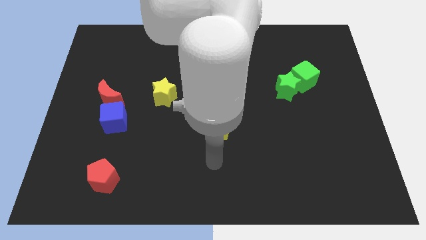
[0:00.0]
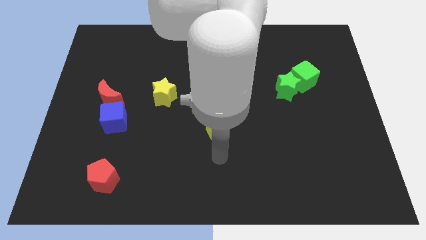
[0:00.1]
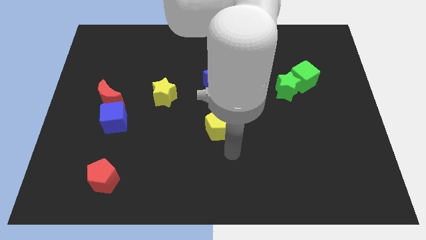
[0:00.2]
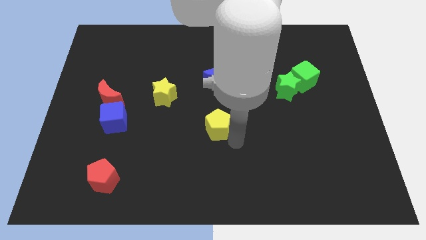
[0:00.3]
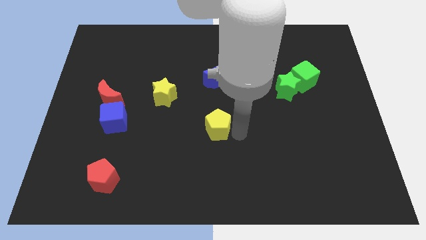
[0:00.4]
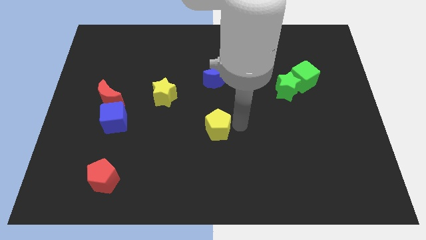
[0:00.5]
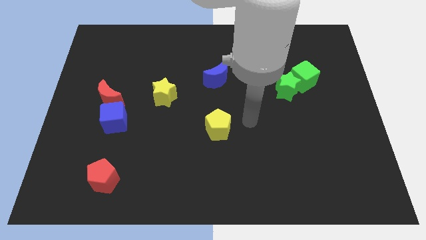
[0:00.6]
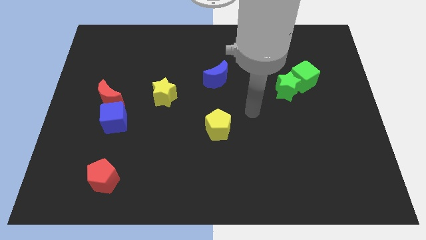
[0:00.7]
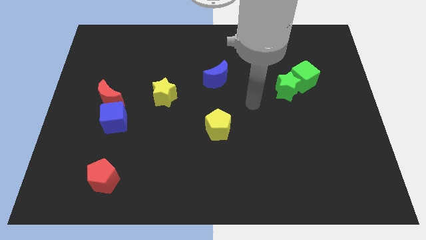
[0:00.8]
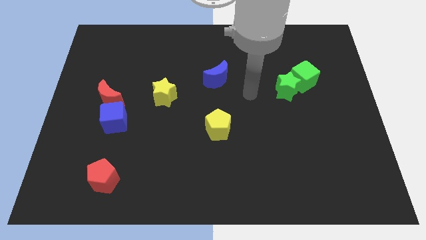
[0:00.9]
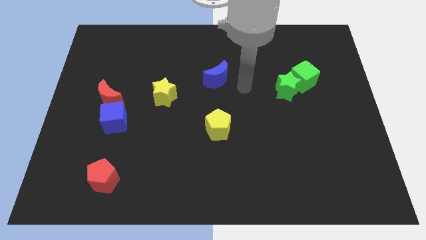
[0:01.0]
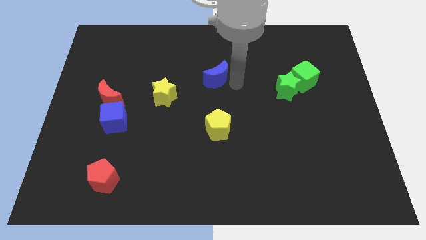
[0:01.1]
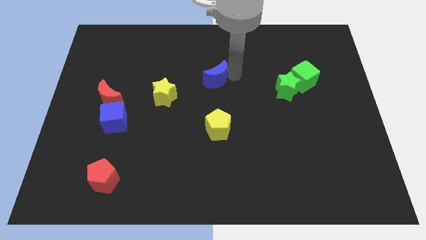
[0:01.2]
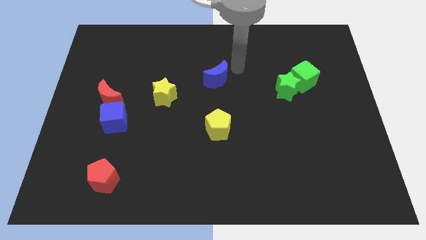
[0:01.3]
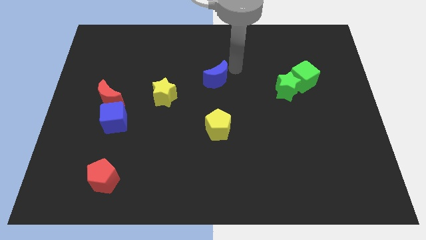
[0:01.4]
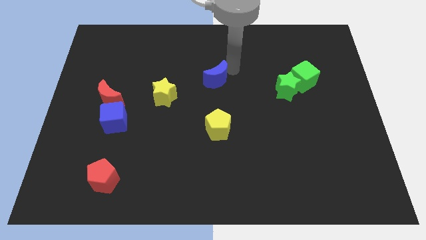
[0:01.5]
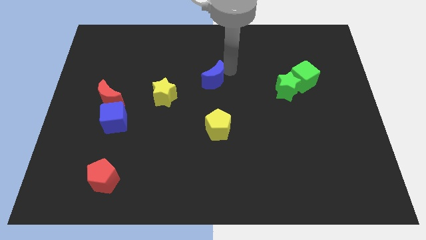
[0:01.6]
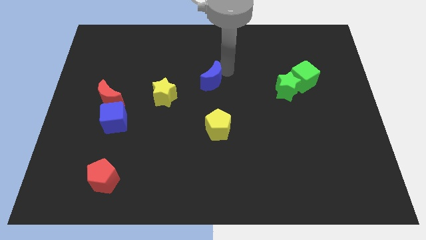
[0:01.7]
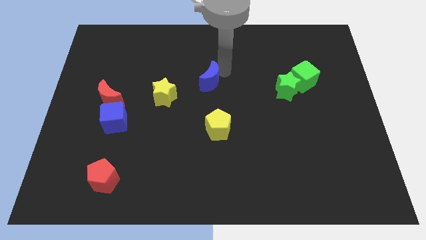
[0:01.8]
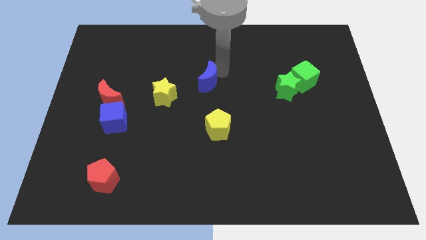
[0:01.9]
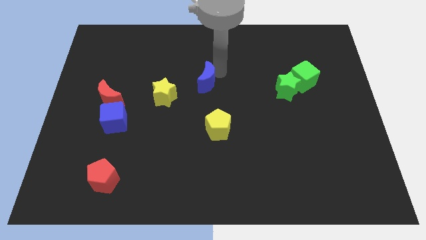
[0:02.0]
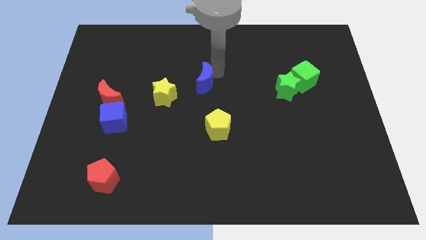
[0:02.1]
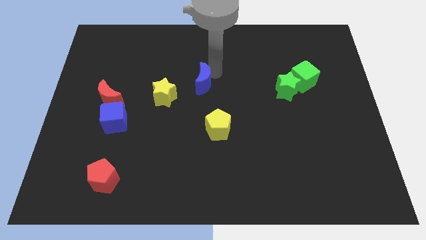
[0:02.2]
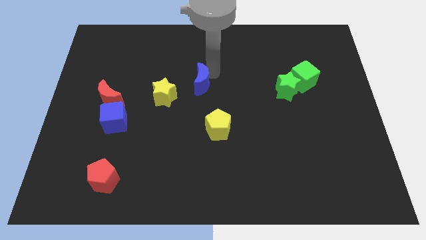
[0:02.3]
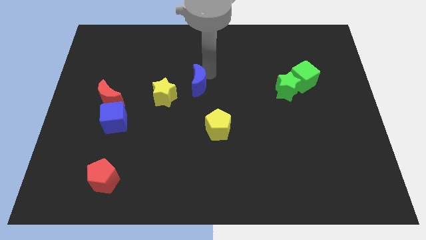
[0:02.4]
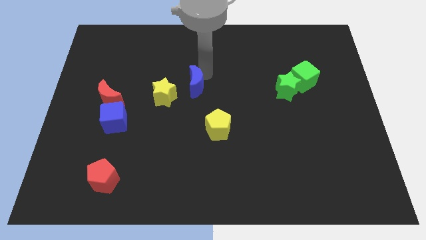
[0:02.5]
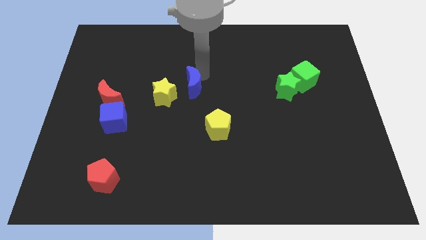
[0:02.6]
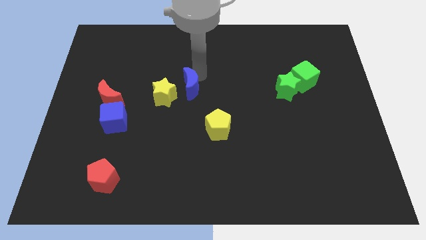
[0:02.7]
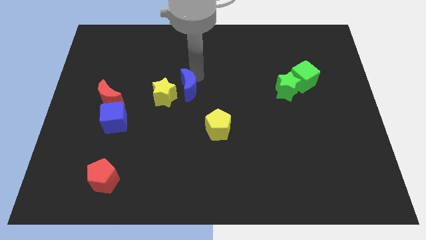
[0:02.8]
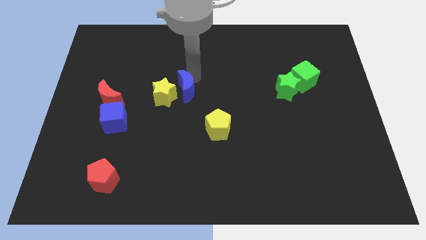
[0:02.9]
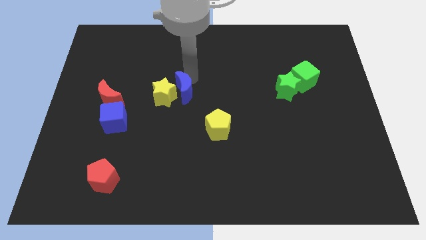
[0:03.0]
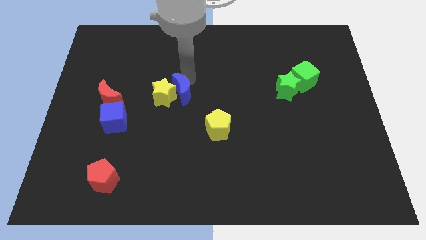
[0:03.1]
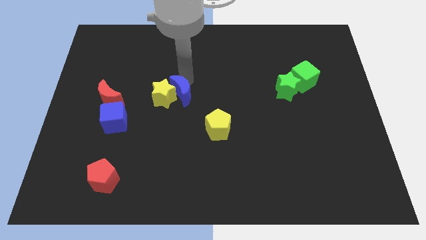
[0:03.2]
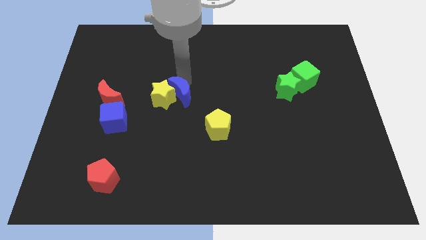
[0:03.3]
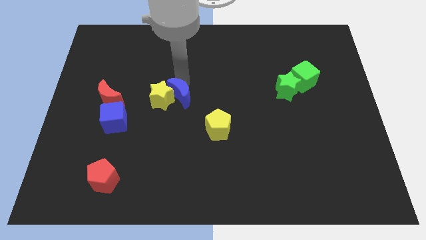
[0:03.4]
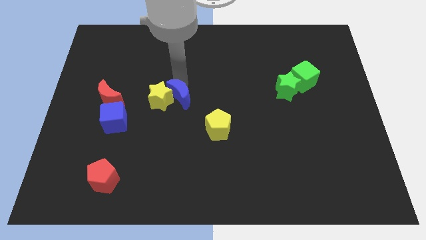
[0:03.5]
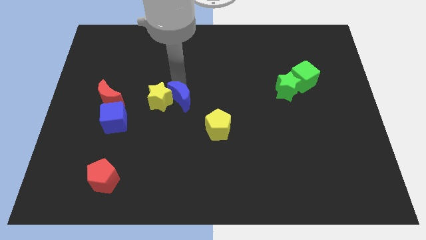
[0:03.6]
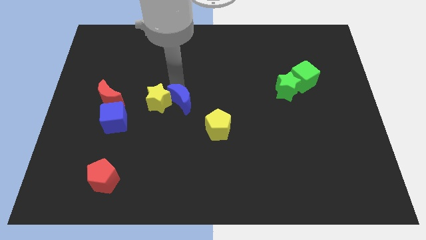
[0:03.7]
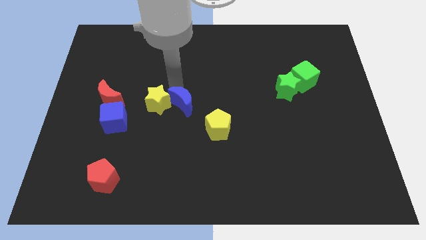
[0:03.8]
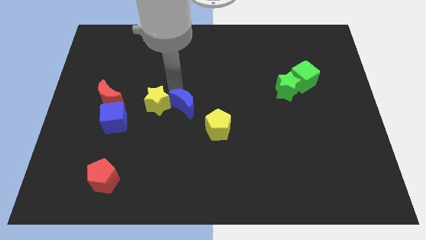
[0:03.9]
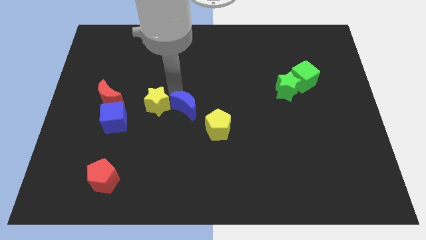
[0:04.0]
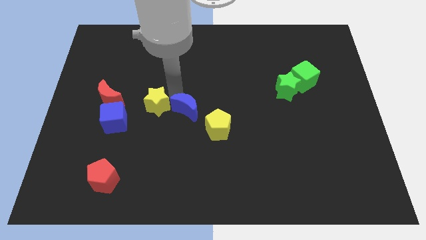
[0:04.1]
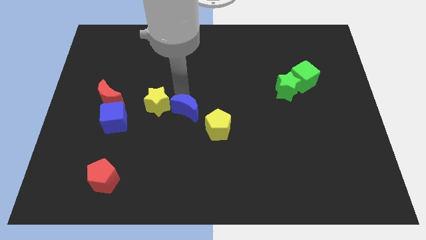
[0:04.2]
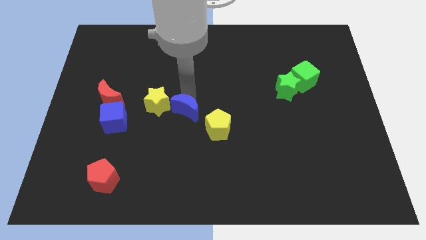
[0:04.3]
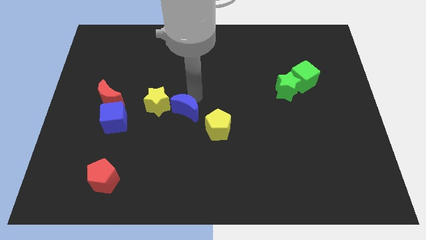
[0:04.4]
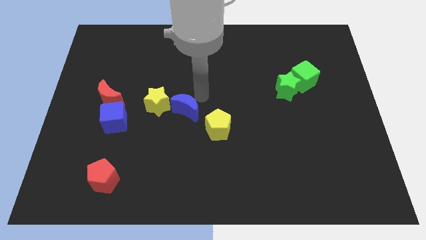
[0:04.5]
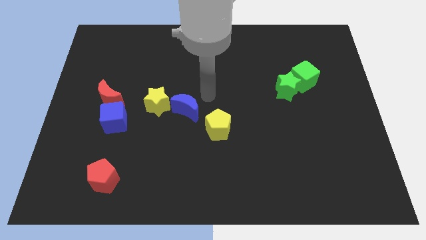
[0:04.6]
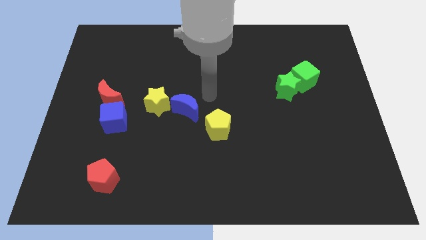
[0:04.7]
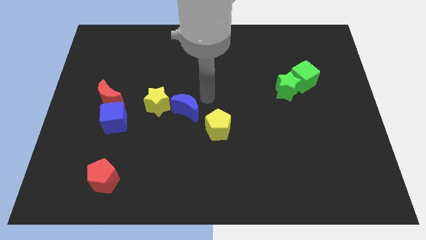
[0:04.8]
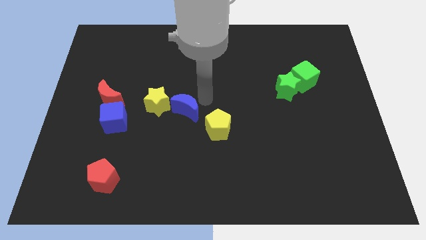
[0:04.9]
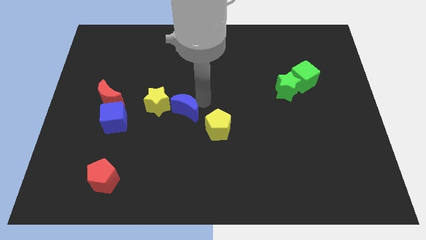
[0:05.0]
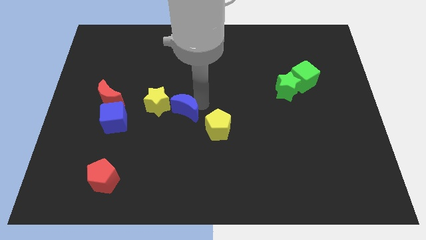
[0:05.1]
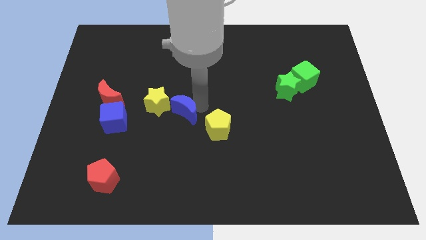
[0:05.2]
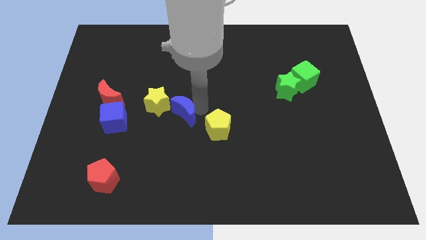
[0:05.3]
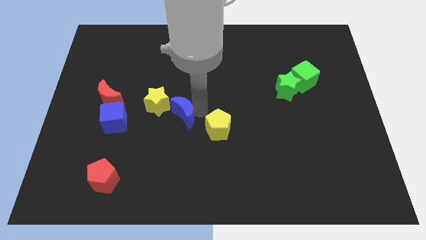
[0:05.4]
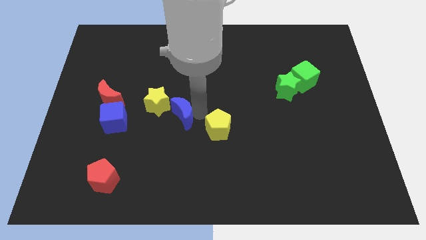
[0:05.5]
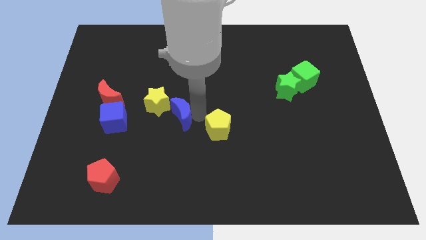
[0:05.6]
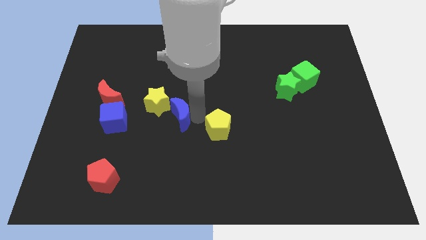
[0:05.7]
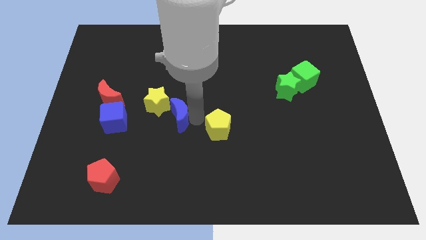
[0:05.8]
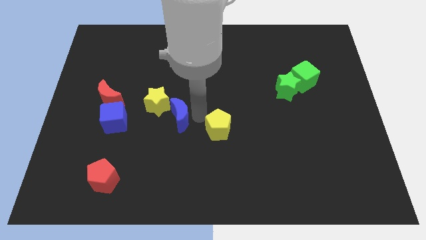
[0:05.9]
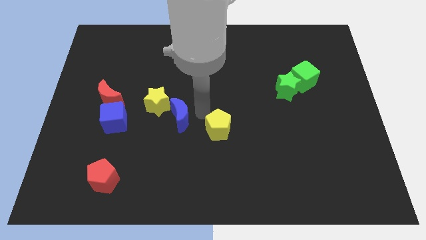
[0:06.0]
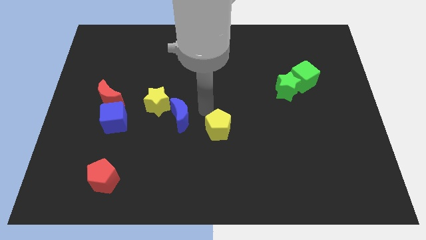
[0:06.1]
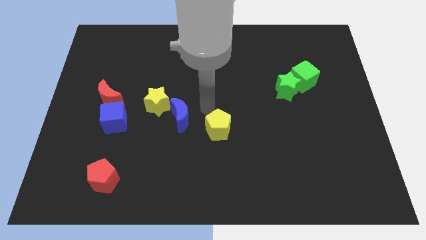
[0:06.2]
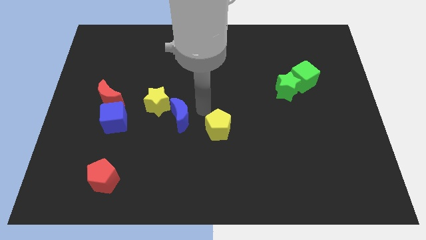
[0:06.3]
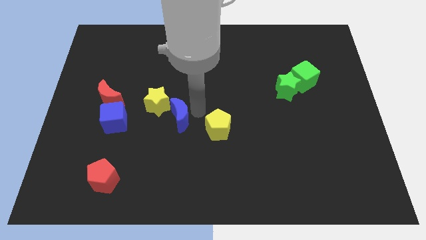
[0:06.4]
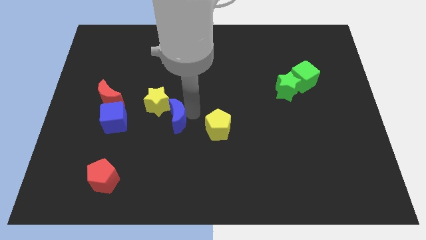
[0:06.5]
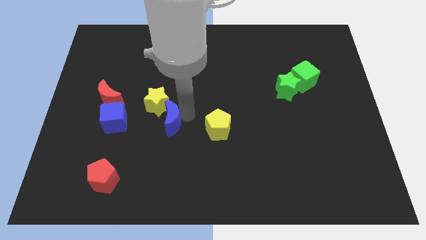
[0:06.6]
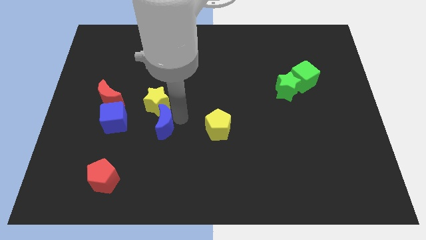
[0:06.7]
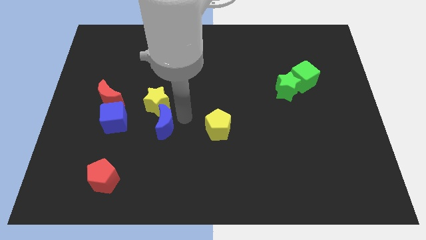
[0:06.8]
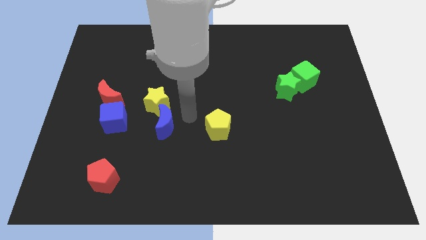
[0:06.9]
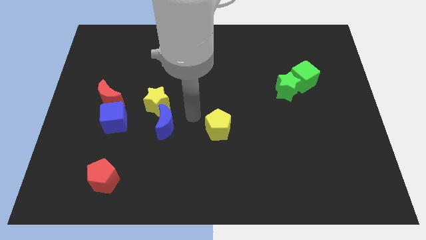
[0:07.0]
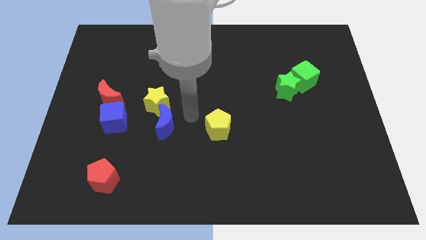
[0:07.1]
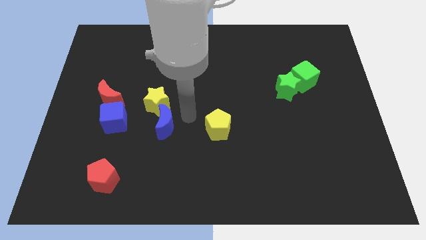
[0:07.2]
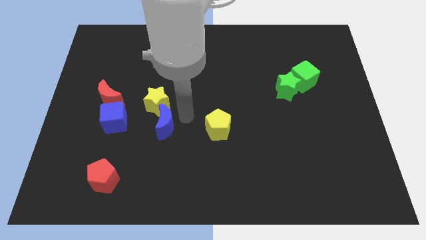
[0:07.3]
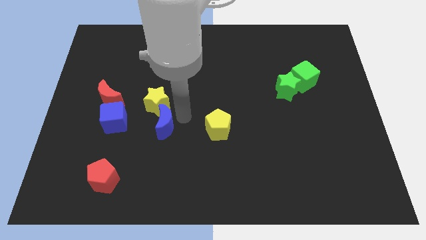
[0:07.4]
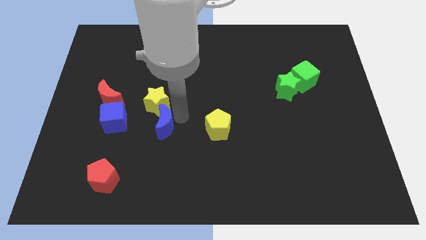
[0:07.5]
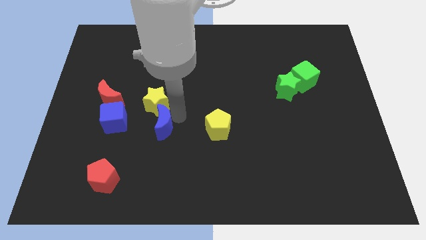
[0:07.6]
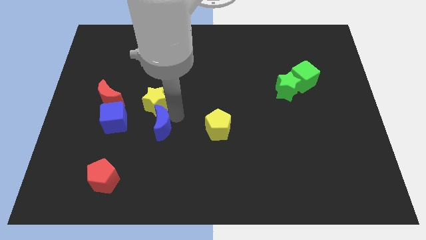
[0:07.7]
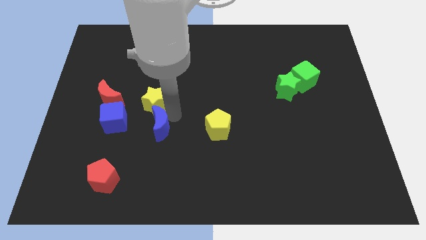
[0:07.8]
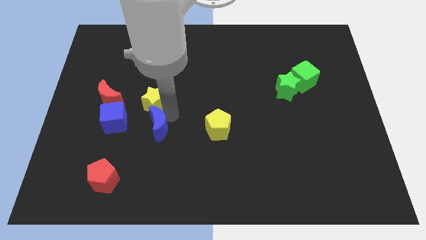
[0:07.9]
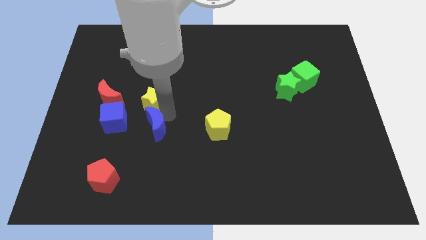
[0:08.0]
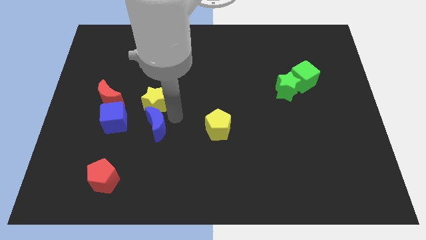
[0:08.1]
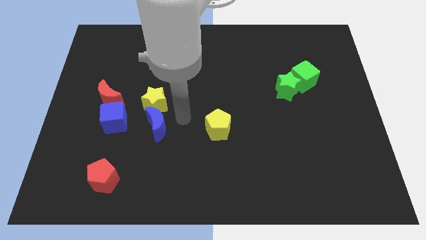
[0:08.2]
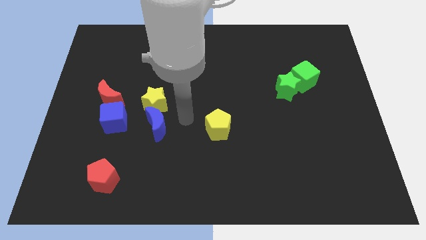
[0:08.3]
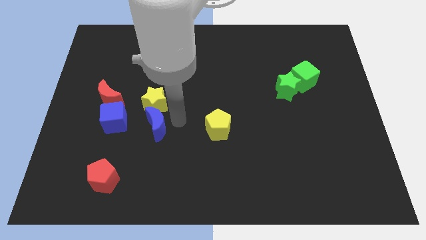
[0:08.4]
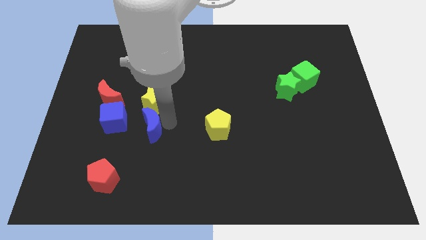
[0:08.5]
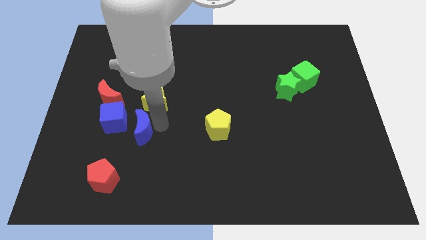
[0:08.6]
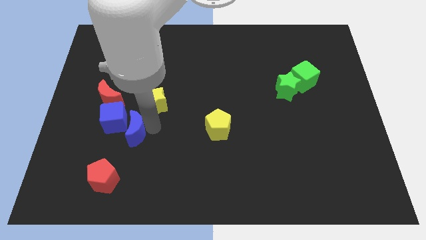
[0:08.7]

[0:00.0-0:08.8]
slide the blue moon to the top side of the red pentagon
